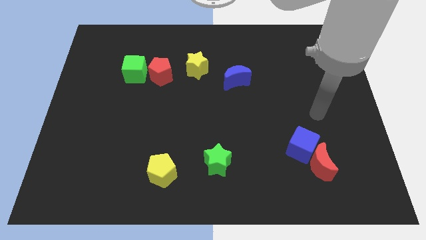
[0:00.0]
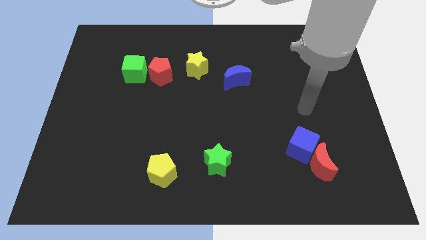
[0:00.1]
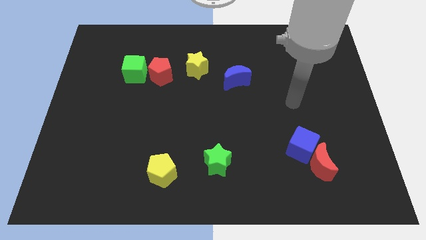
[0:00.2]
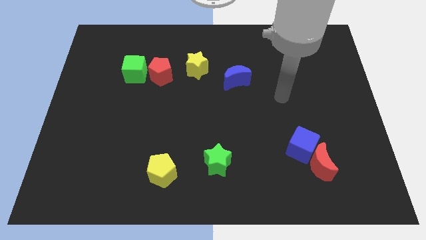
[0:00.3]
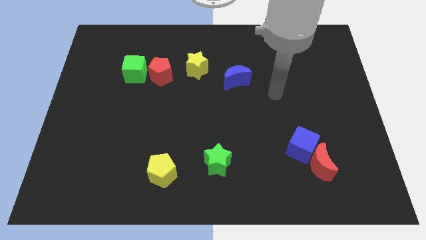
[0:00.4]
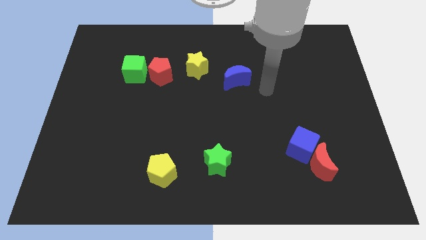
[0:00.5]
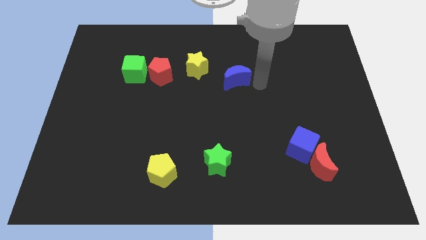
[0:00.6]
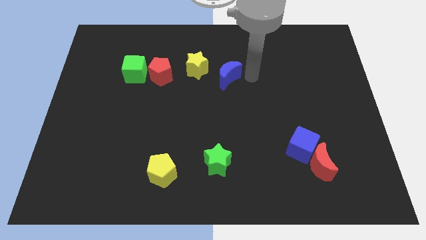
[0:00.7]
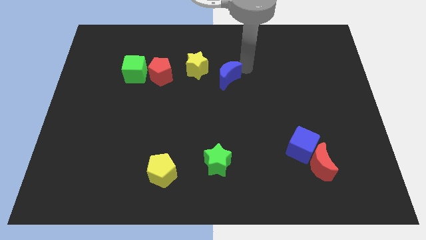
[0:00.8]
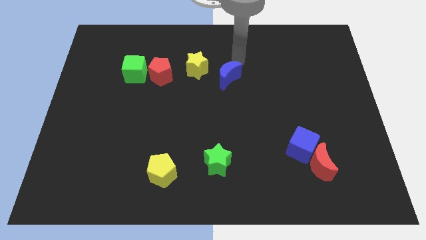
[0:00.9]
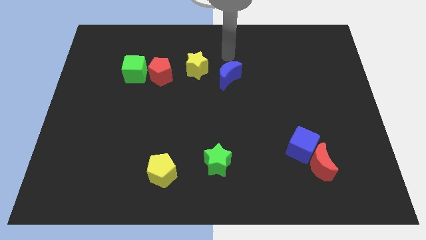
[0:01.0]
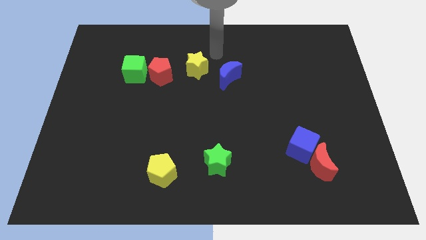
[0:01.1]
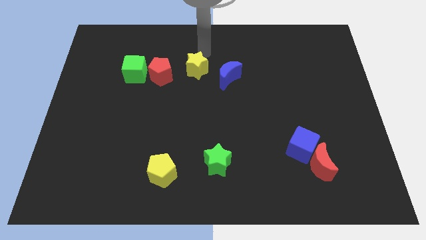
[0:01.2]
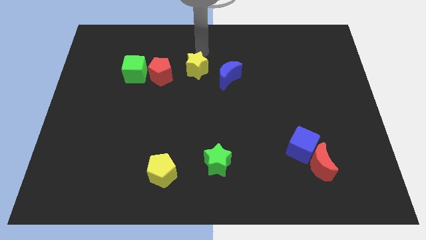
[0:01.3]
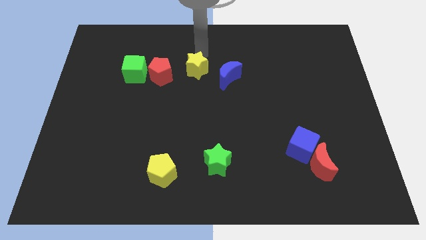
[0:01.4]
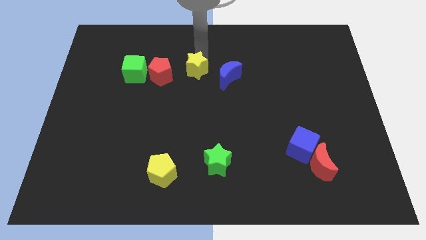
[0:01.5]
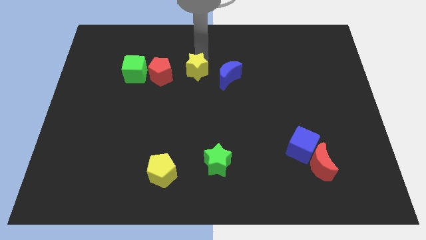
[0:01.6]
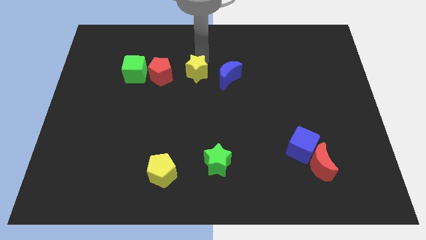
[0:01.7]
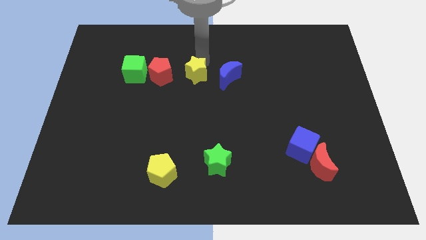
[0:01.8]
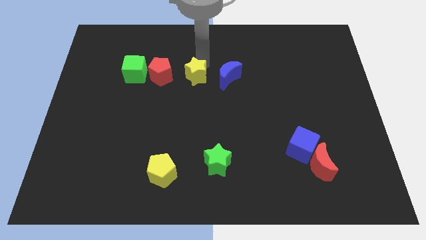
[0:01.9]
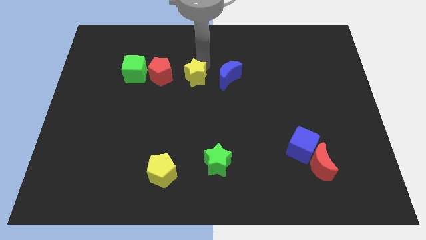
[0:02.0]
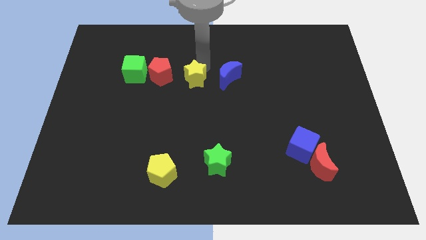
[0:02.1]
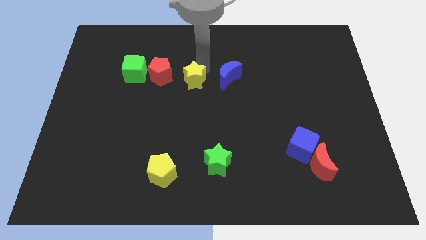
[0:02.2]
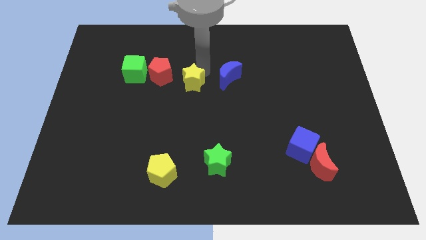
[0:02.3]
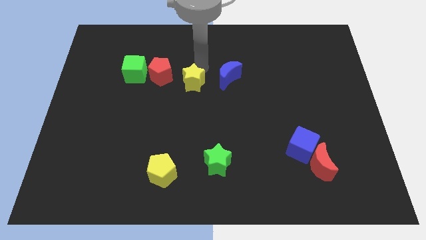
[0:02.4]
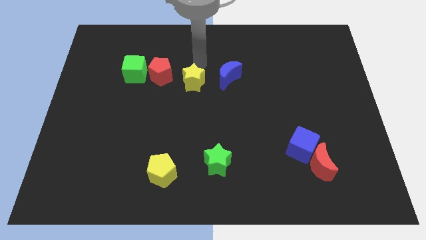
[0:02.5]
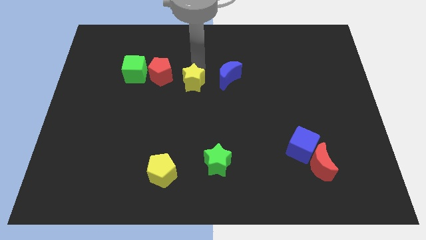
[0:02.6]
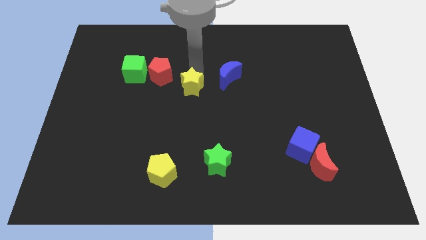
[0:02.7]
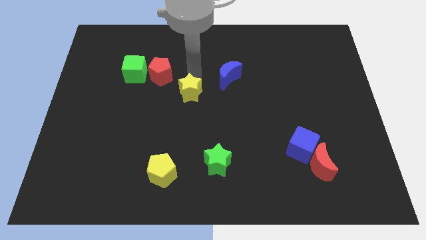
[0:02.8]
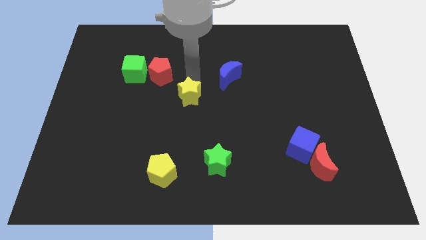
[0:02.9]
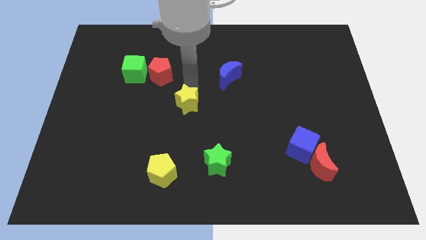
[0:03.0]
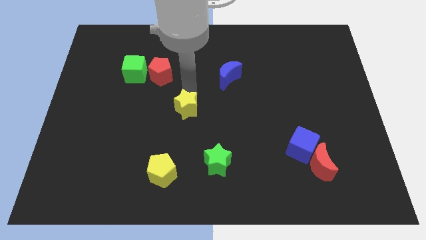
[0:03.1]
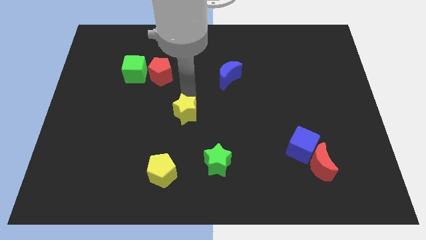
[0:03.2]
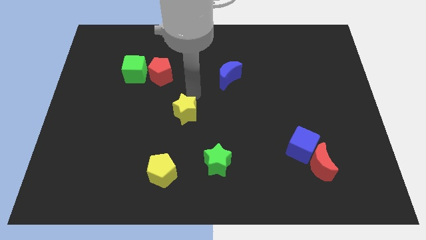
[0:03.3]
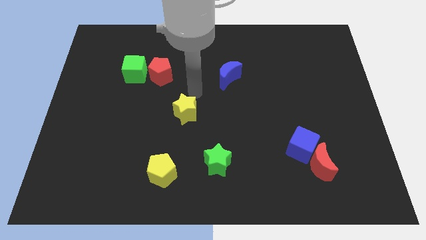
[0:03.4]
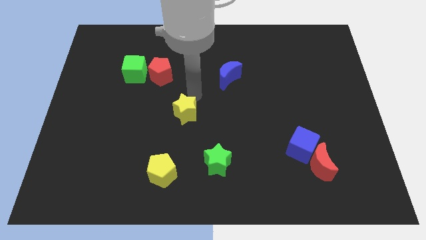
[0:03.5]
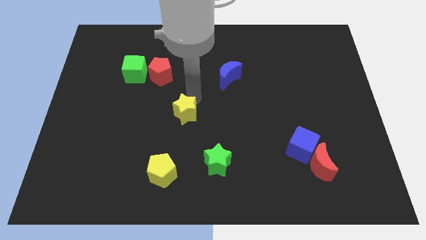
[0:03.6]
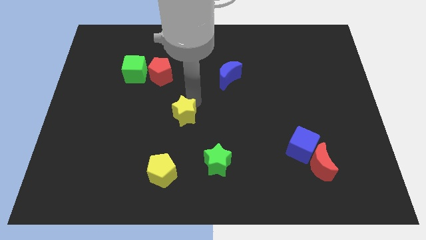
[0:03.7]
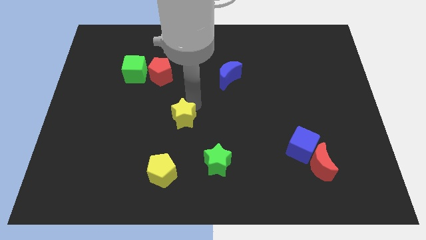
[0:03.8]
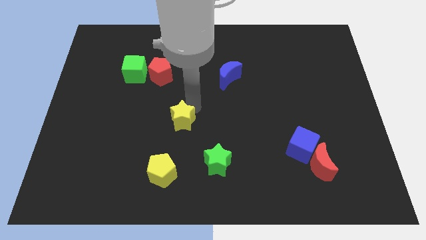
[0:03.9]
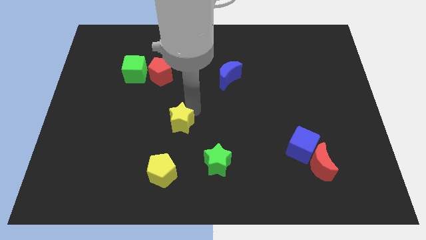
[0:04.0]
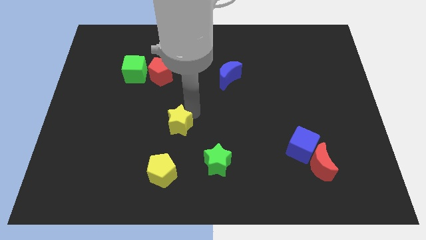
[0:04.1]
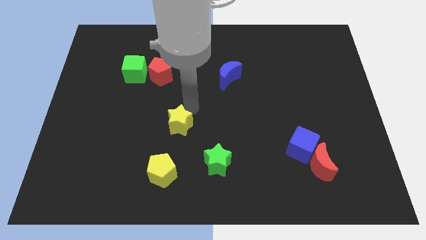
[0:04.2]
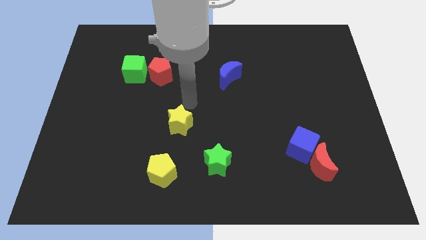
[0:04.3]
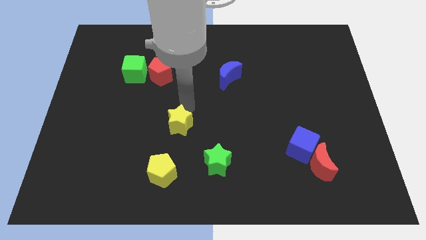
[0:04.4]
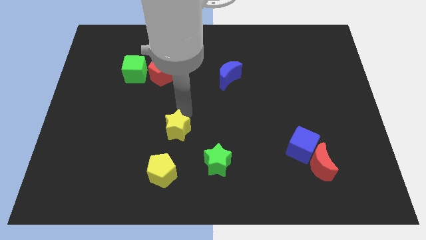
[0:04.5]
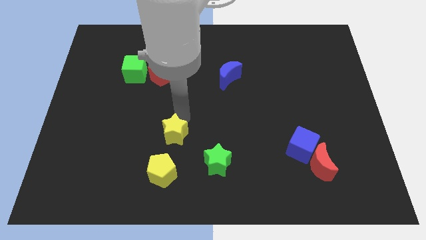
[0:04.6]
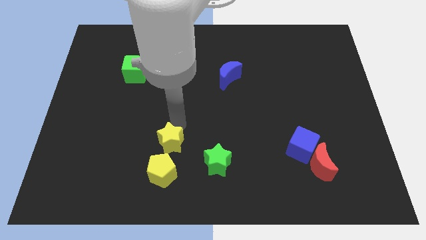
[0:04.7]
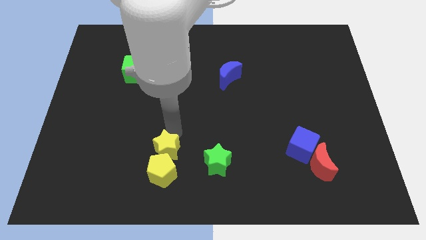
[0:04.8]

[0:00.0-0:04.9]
move the yellow star next to the yellow pentagon

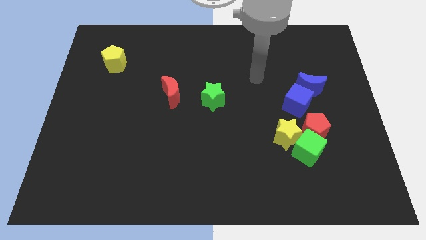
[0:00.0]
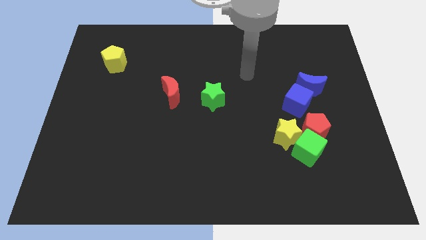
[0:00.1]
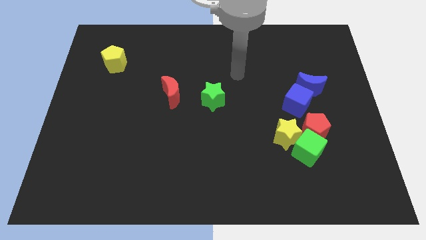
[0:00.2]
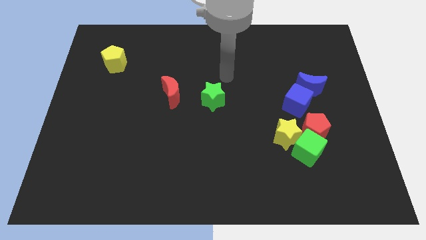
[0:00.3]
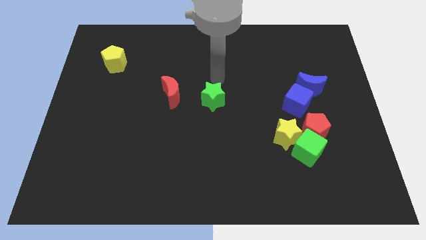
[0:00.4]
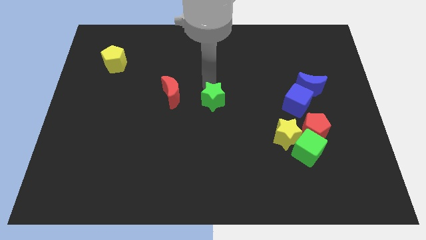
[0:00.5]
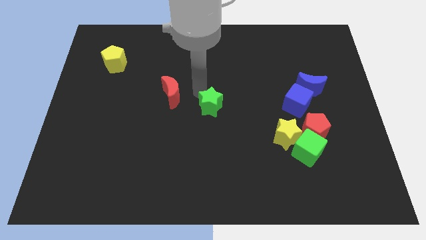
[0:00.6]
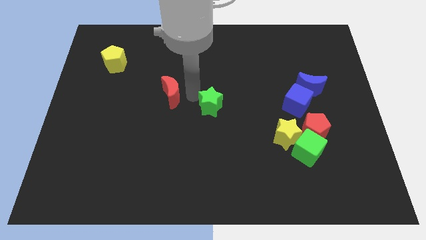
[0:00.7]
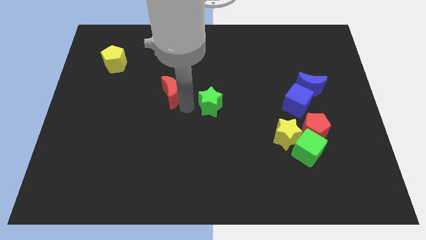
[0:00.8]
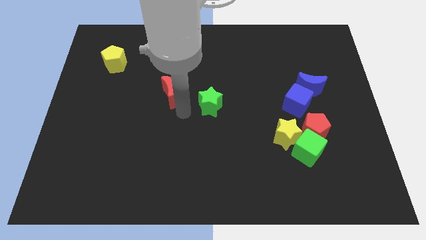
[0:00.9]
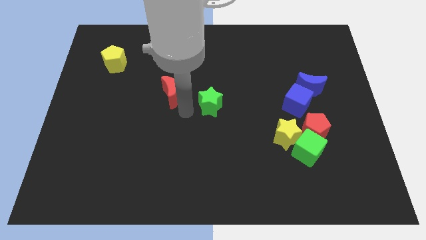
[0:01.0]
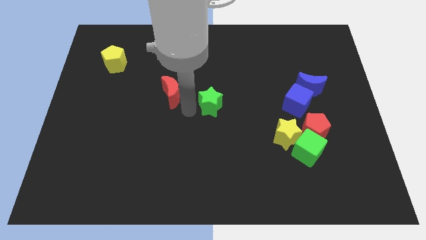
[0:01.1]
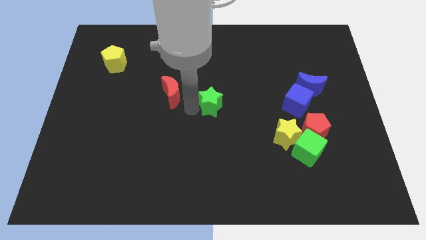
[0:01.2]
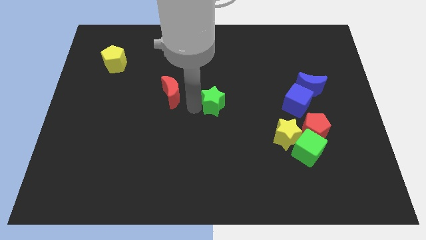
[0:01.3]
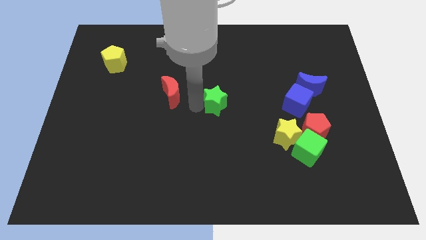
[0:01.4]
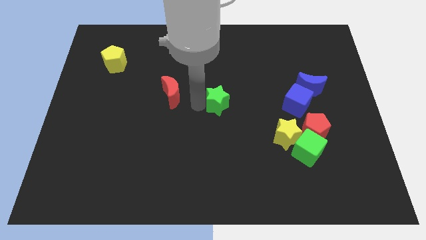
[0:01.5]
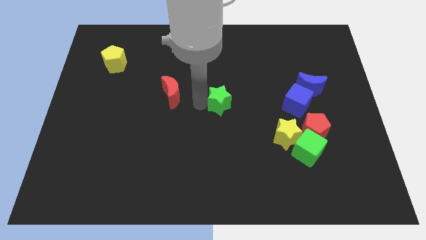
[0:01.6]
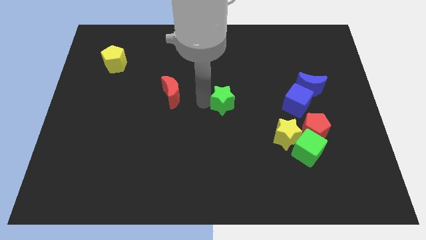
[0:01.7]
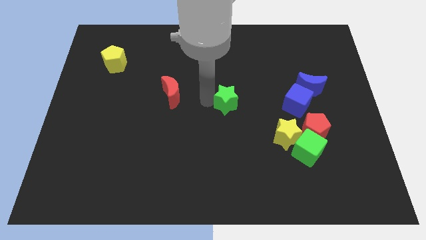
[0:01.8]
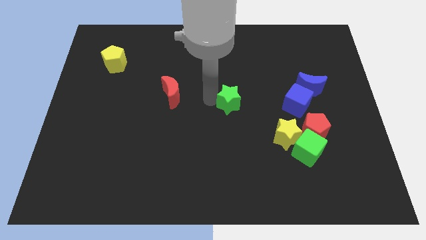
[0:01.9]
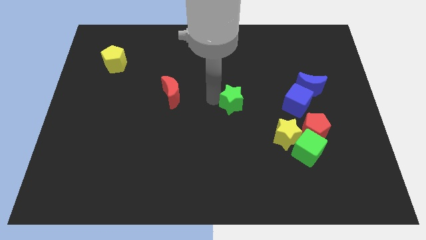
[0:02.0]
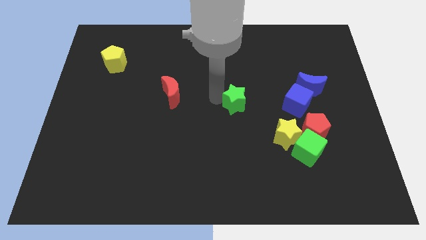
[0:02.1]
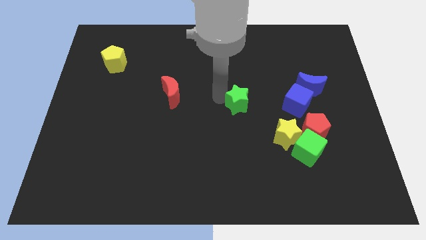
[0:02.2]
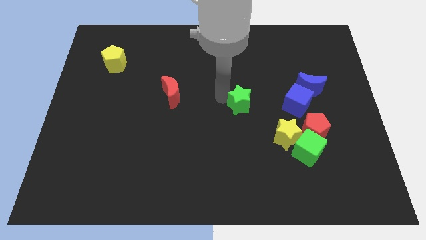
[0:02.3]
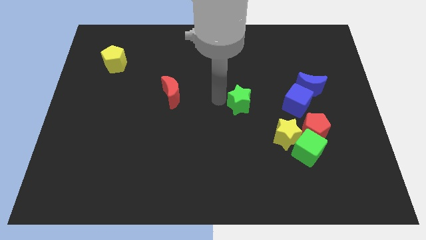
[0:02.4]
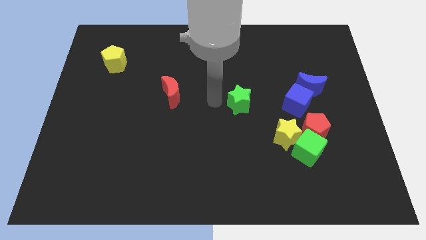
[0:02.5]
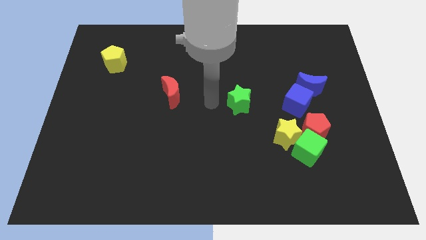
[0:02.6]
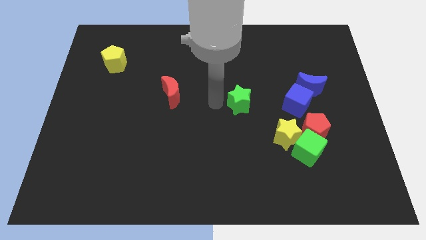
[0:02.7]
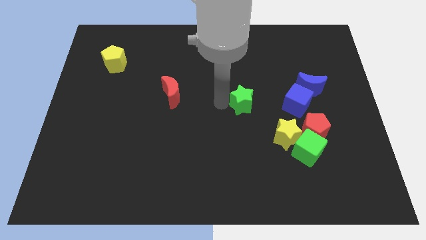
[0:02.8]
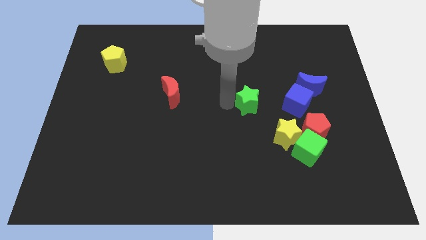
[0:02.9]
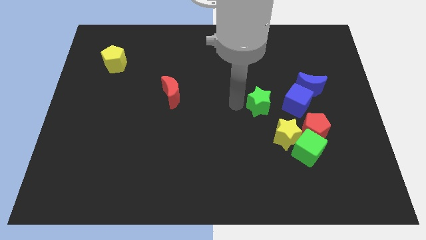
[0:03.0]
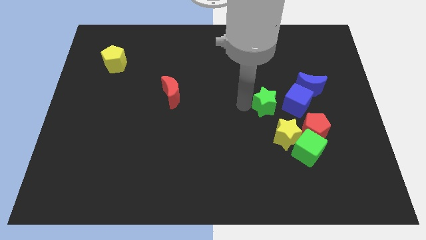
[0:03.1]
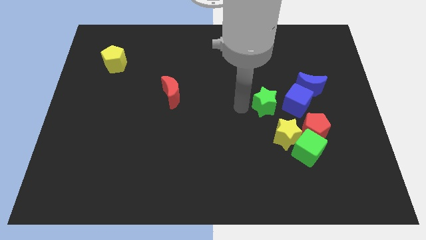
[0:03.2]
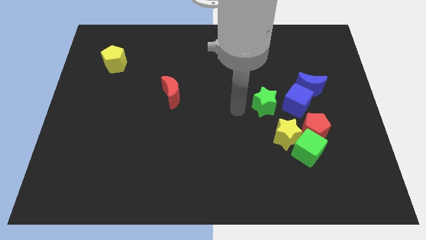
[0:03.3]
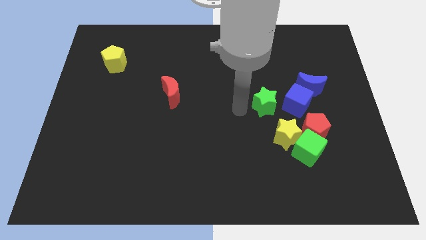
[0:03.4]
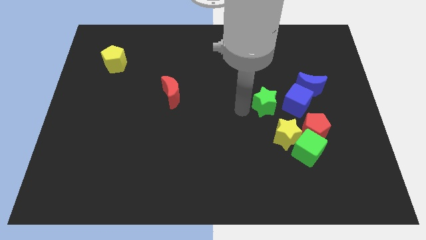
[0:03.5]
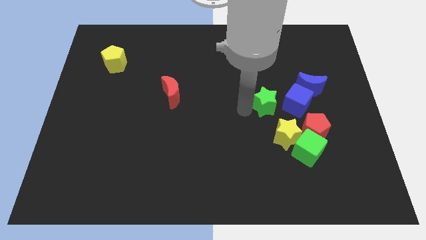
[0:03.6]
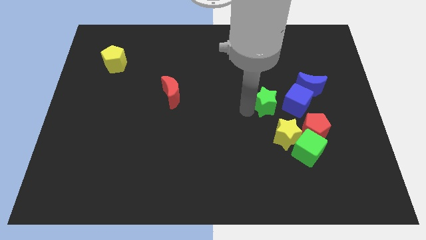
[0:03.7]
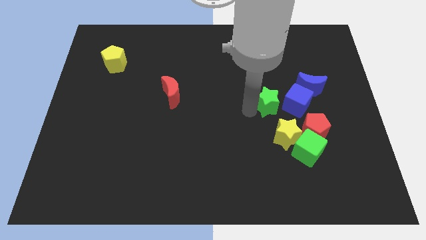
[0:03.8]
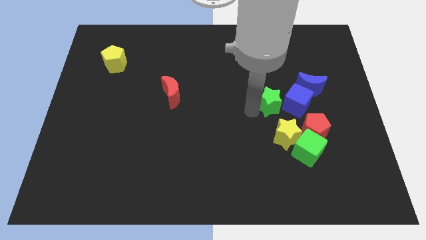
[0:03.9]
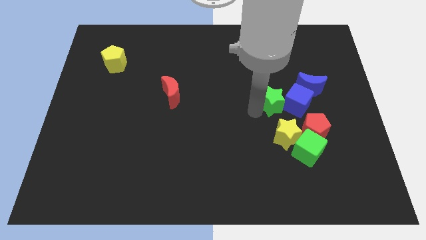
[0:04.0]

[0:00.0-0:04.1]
push the green star next to the blue cube
